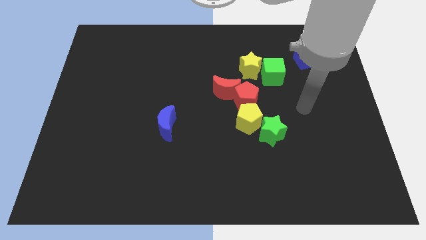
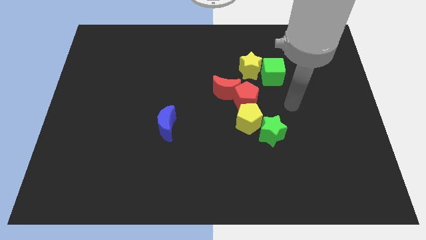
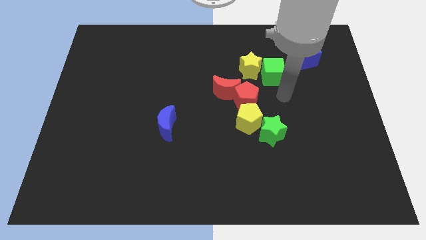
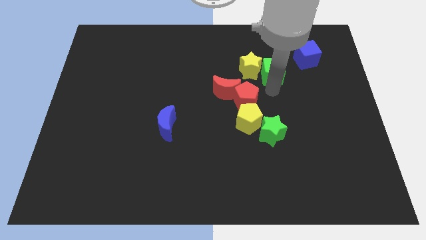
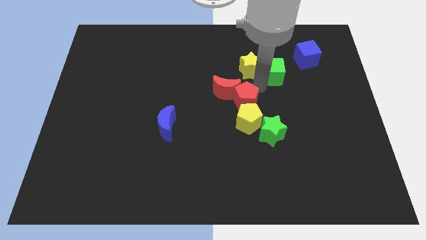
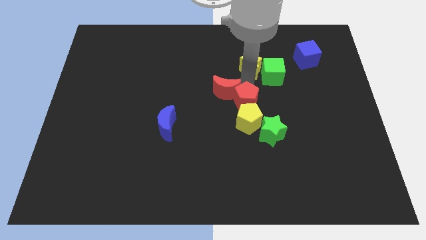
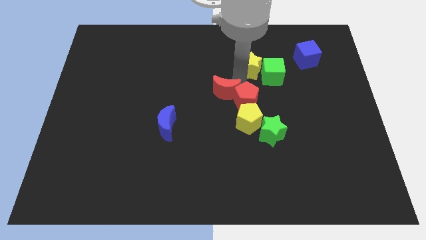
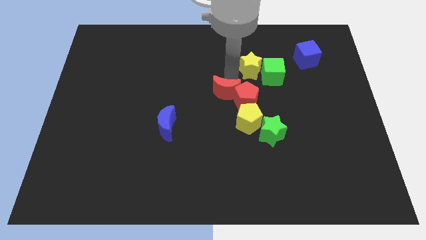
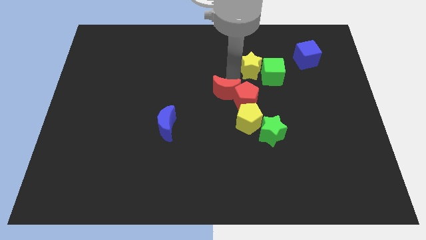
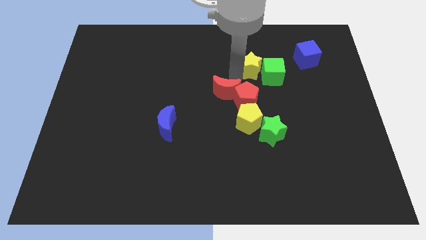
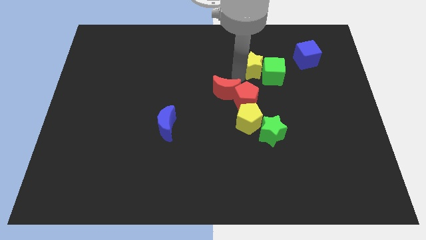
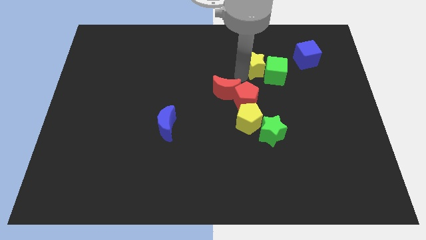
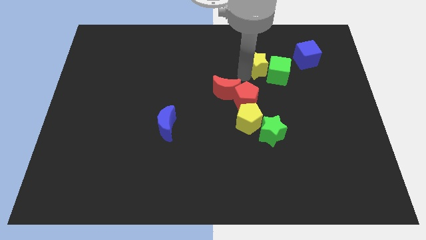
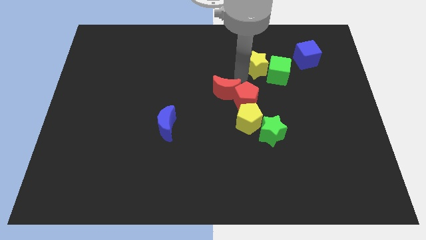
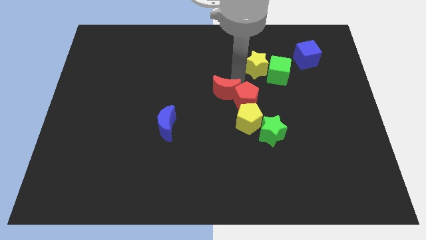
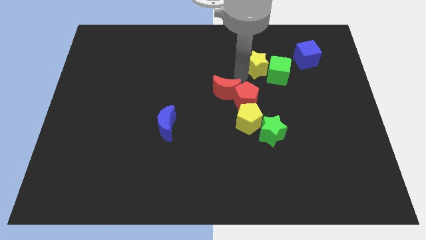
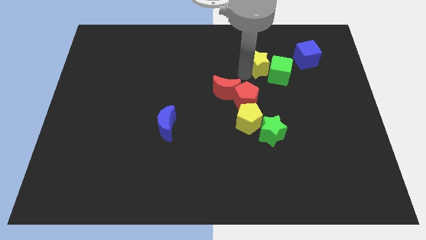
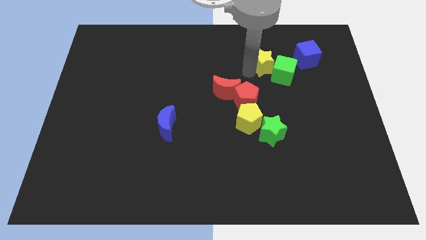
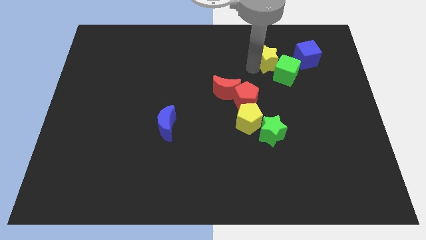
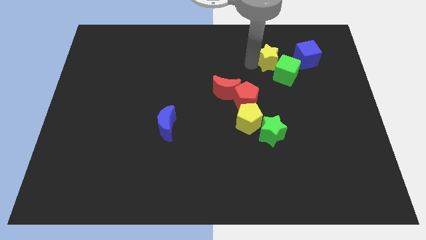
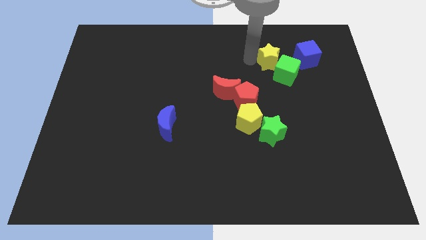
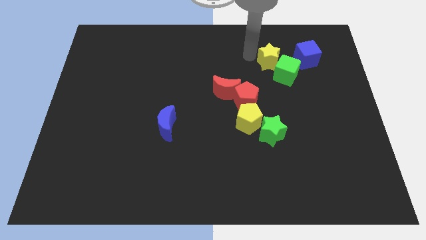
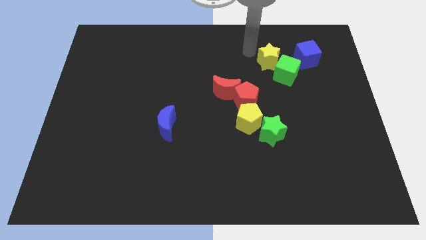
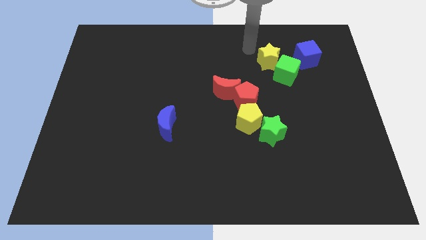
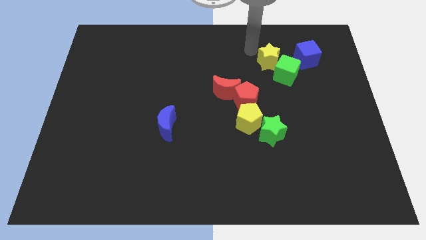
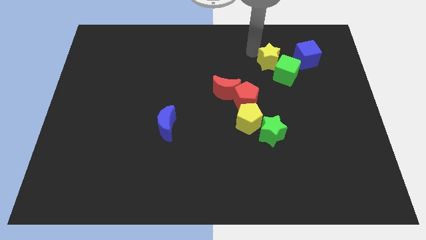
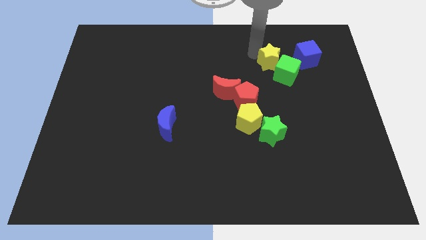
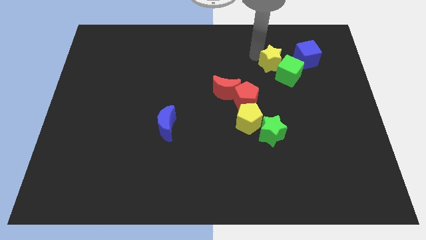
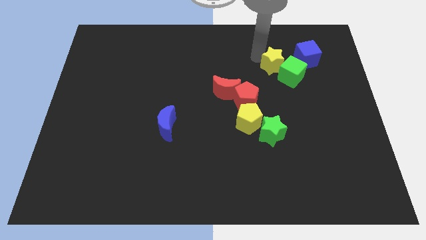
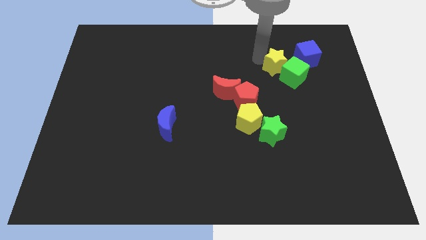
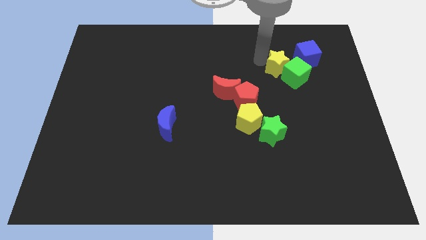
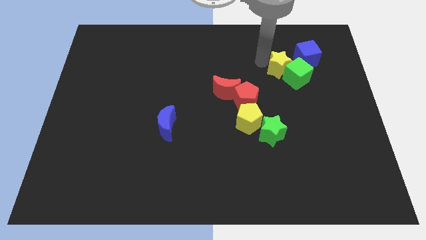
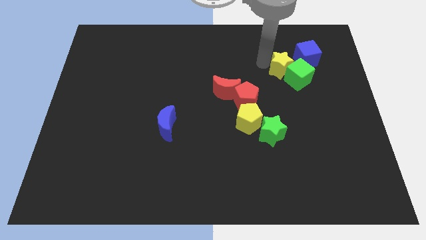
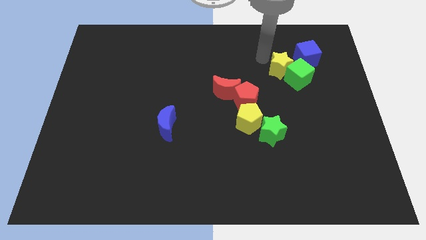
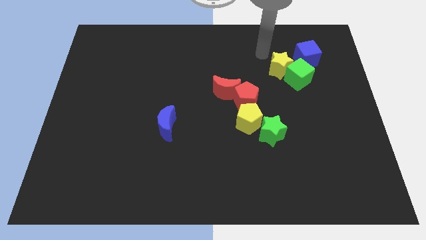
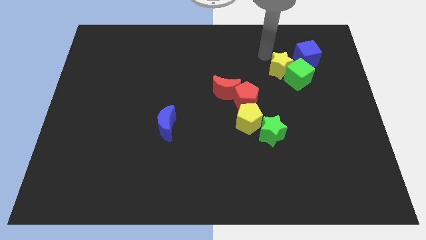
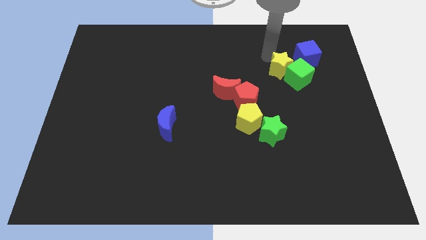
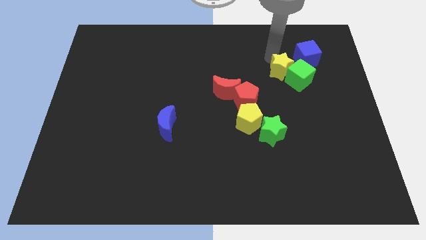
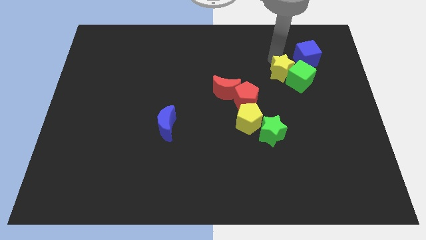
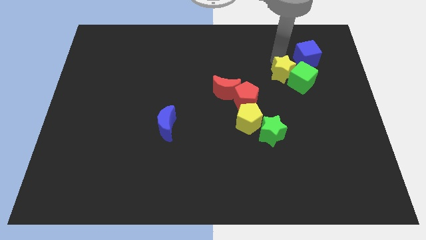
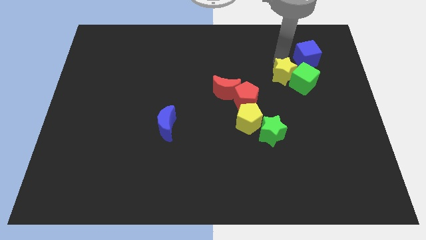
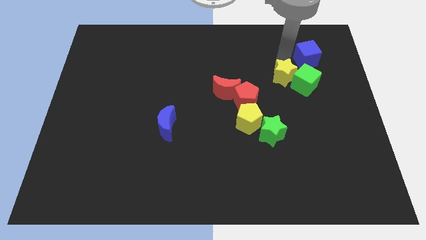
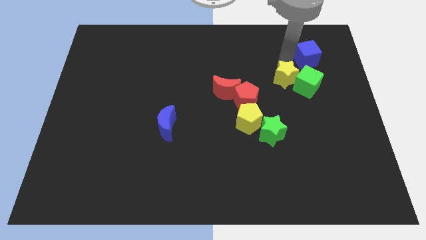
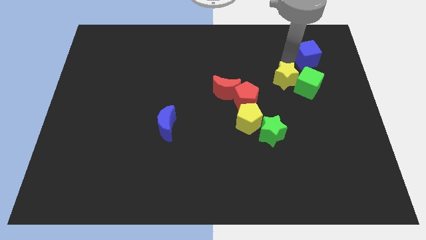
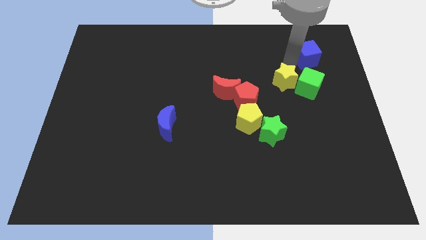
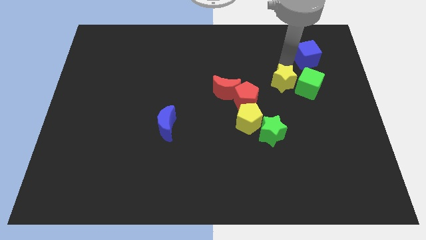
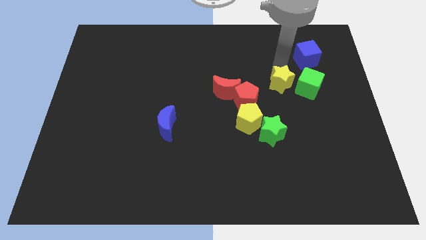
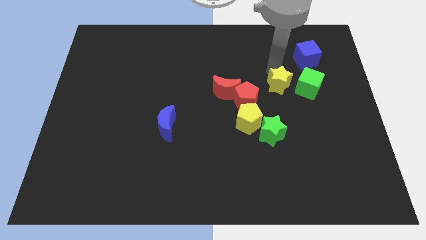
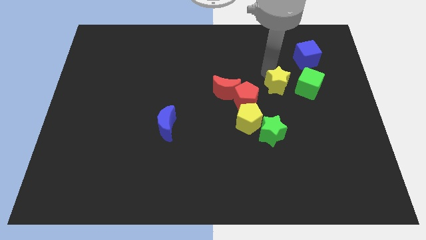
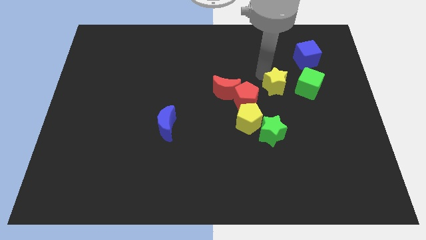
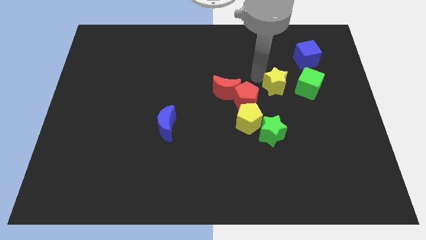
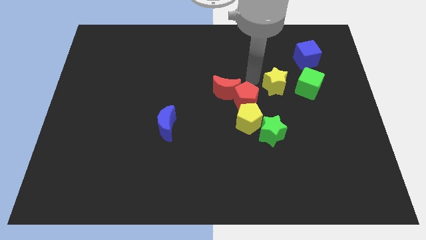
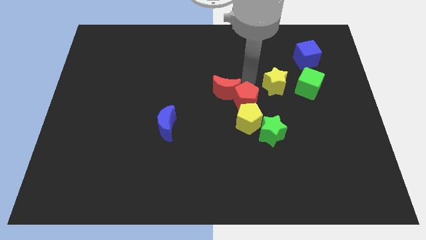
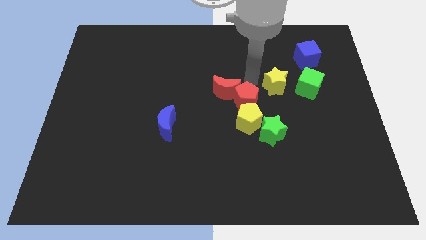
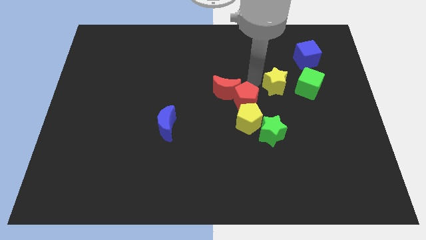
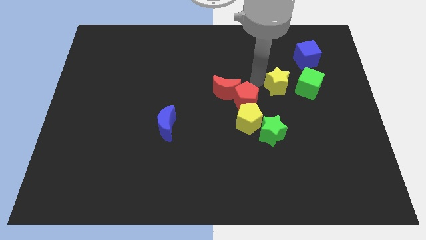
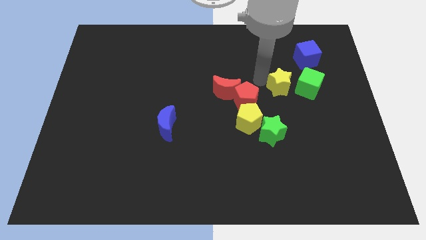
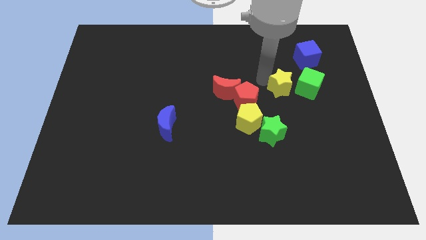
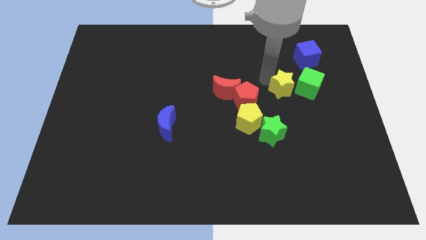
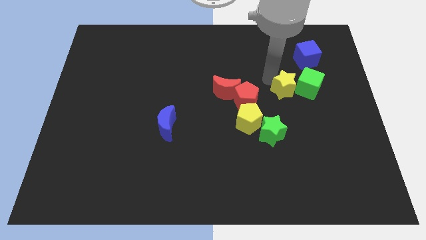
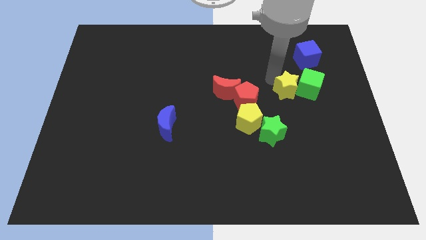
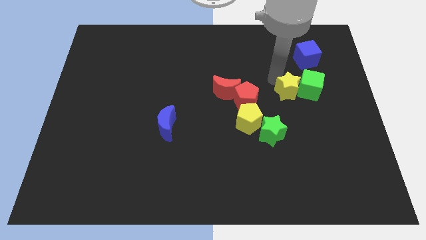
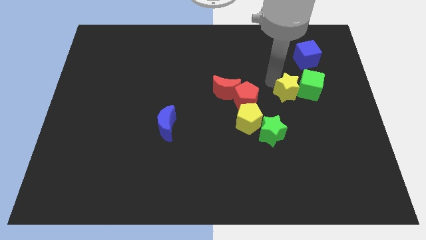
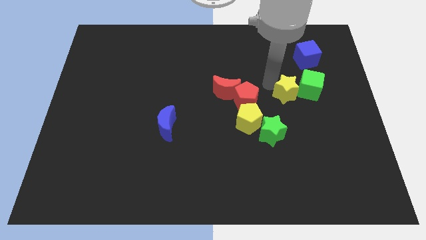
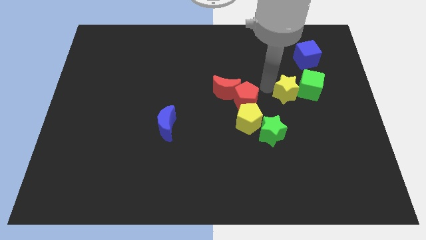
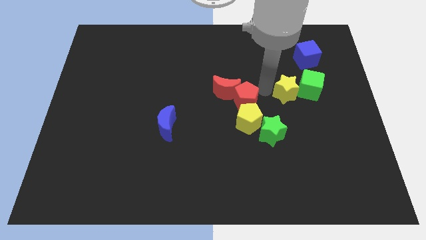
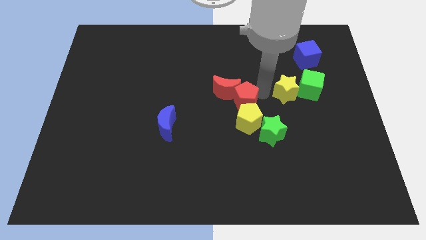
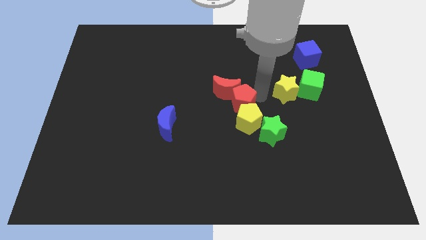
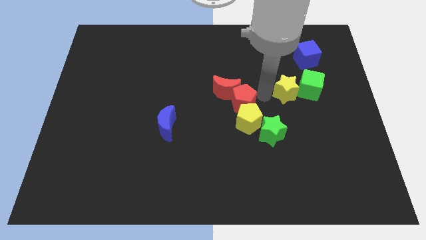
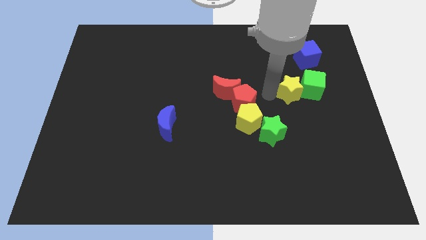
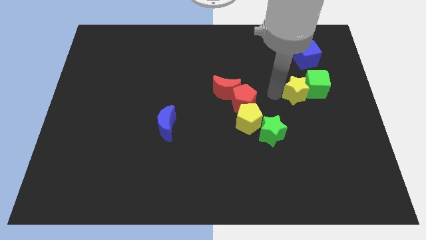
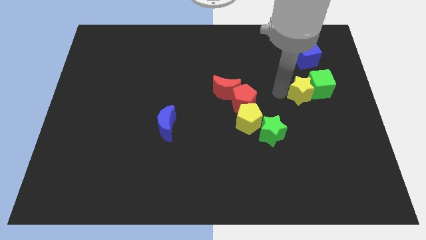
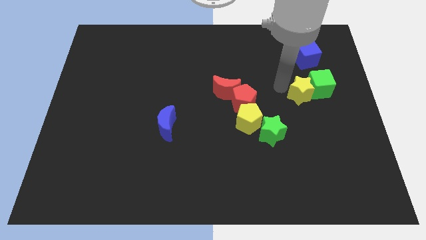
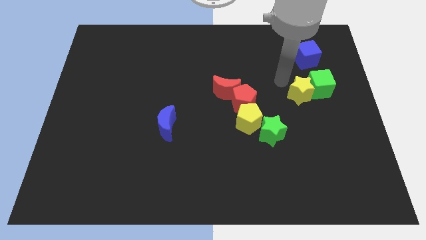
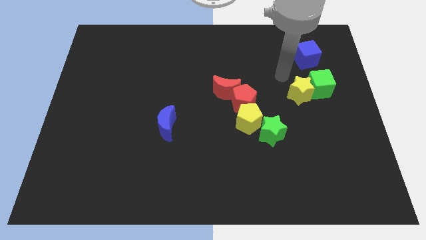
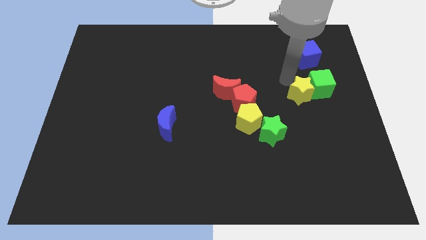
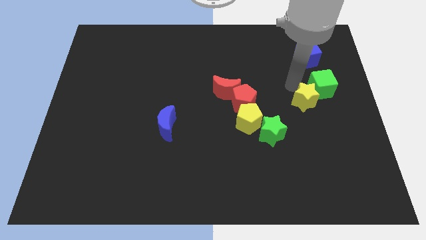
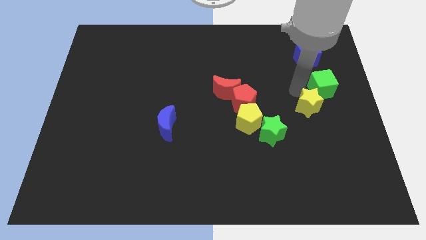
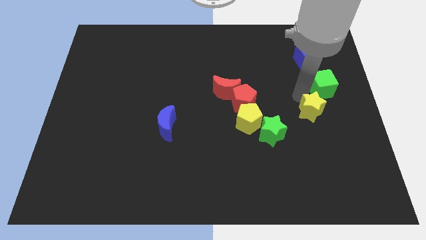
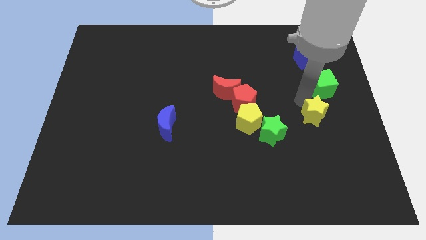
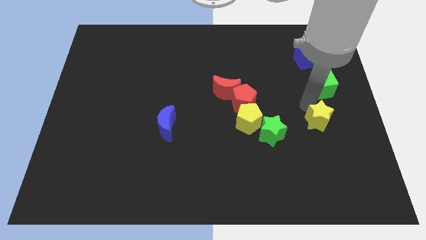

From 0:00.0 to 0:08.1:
move the yellow star just right of the green star
